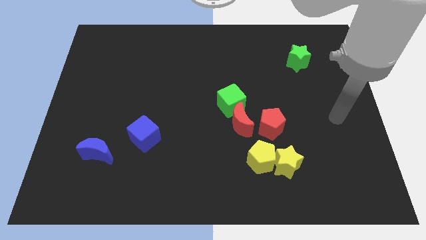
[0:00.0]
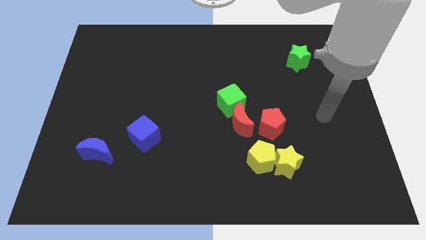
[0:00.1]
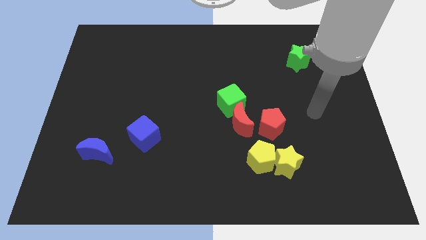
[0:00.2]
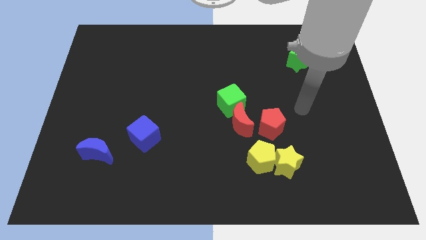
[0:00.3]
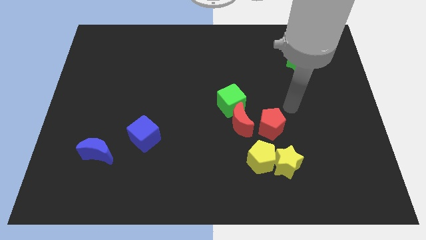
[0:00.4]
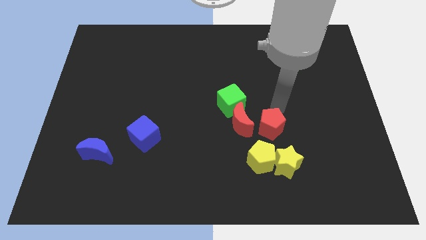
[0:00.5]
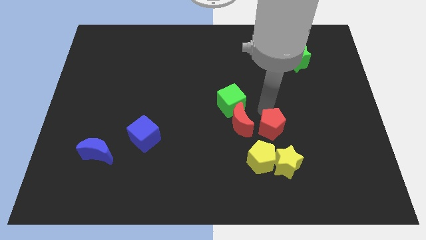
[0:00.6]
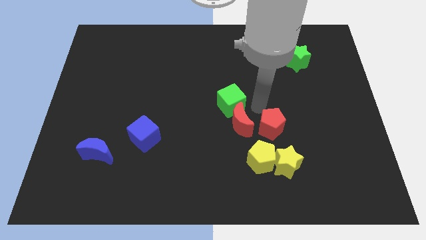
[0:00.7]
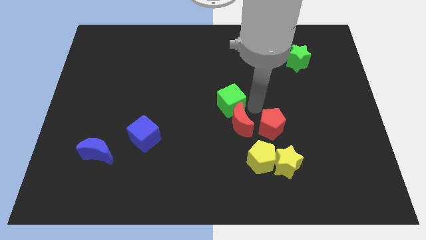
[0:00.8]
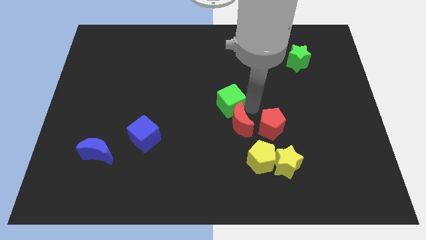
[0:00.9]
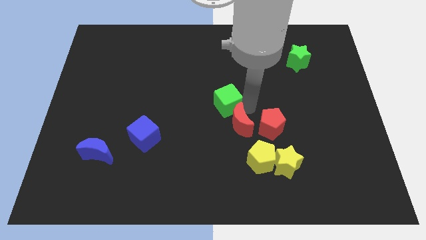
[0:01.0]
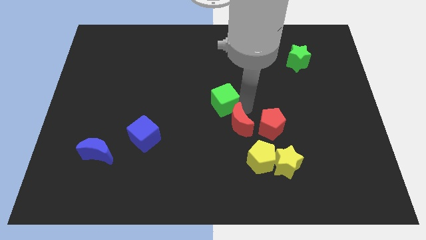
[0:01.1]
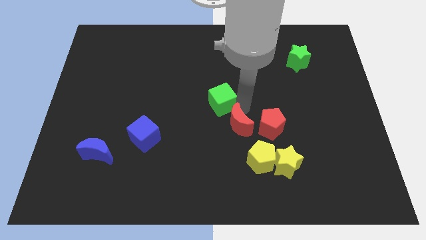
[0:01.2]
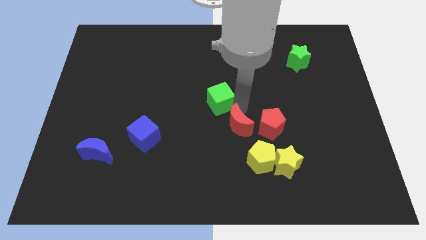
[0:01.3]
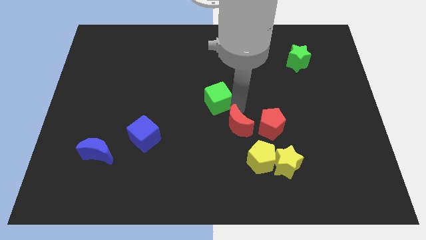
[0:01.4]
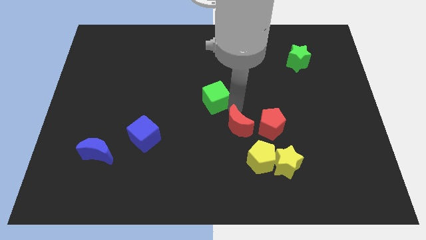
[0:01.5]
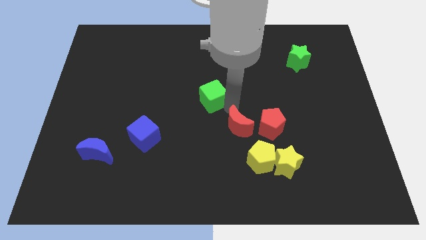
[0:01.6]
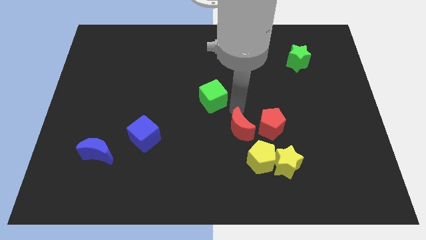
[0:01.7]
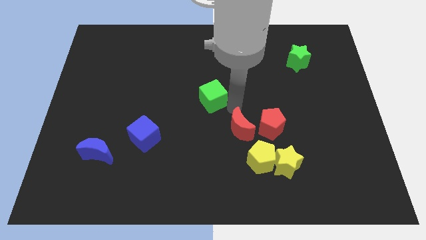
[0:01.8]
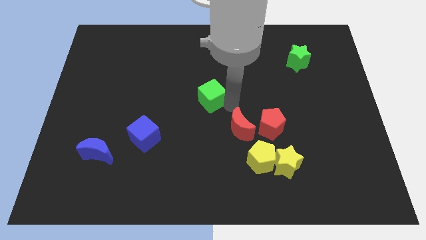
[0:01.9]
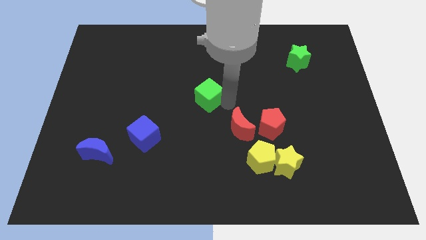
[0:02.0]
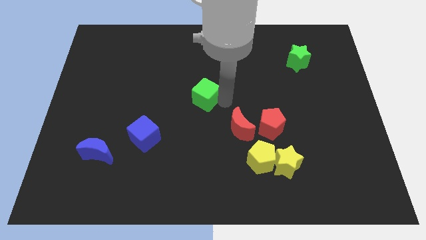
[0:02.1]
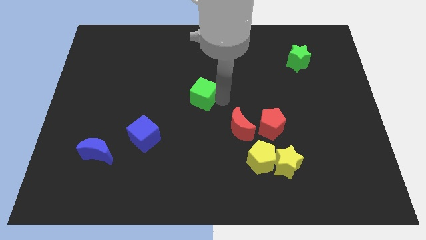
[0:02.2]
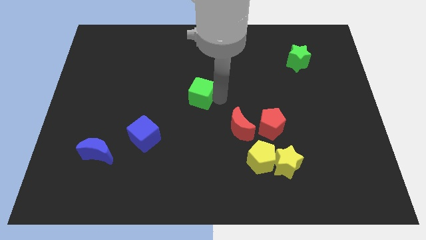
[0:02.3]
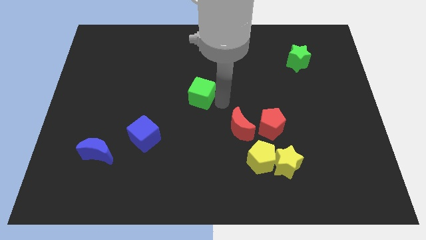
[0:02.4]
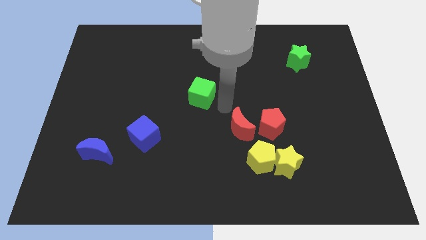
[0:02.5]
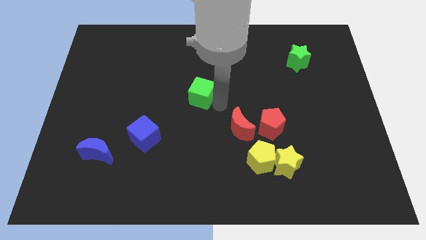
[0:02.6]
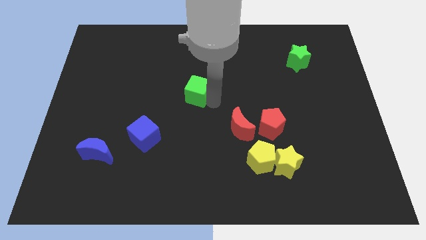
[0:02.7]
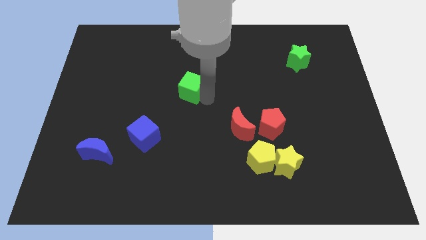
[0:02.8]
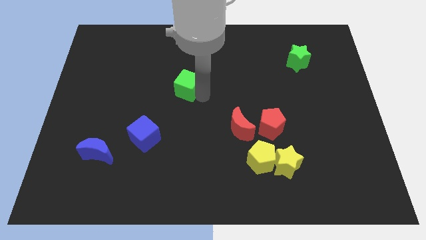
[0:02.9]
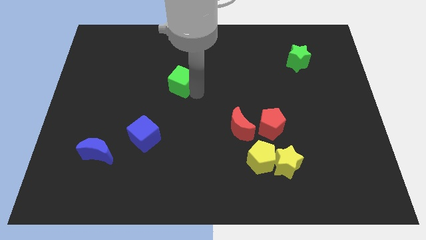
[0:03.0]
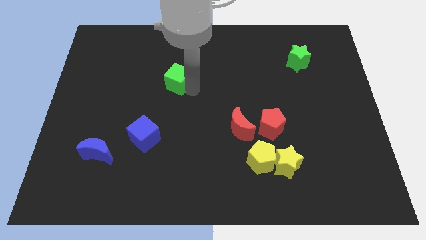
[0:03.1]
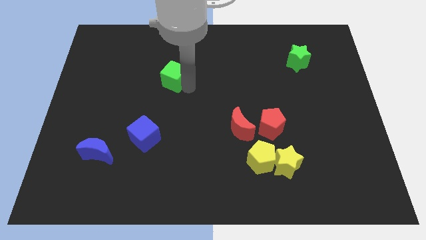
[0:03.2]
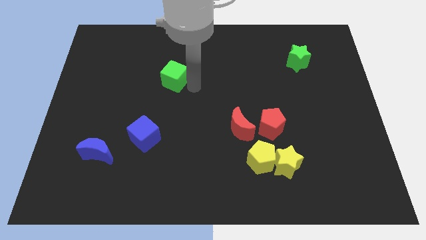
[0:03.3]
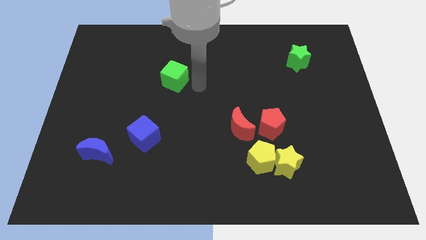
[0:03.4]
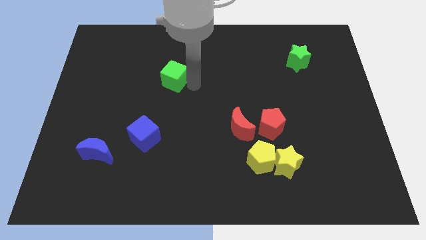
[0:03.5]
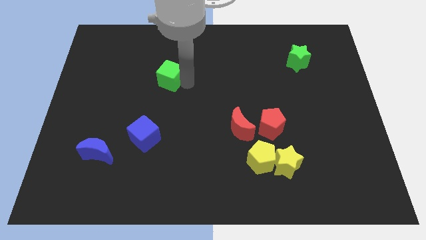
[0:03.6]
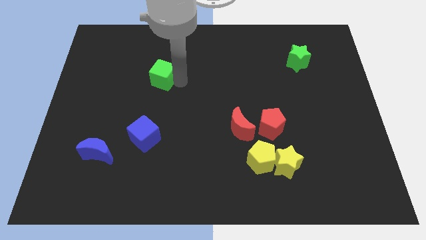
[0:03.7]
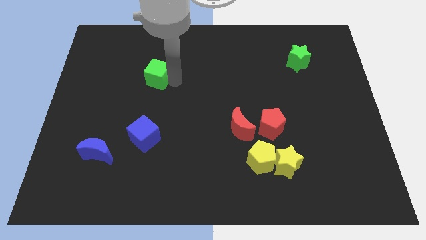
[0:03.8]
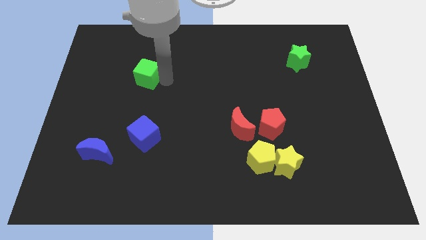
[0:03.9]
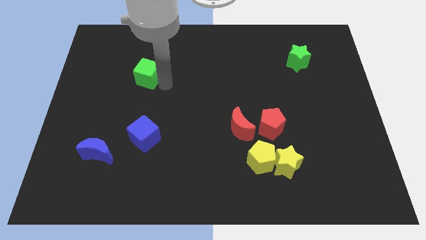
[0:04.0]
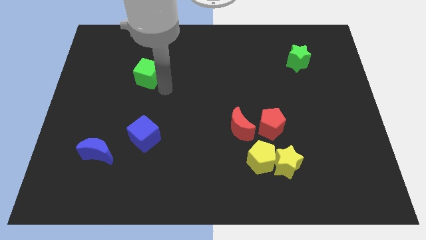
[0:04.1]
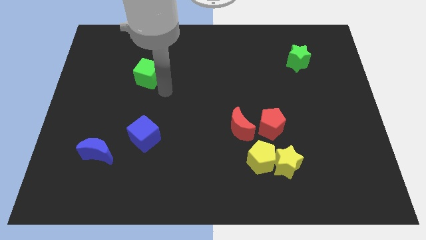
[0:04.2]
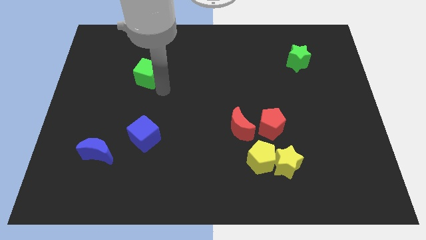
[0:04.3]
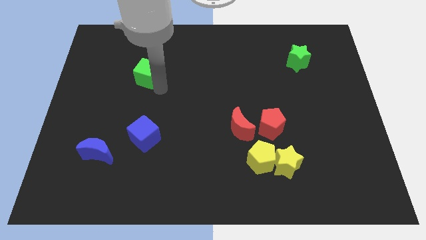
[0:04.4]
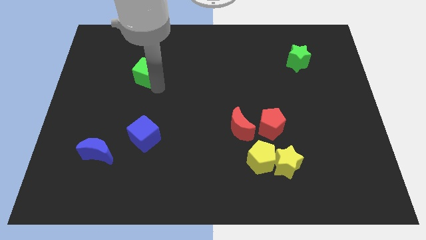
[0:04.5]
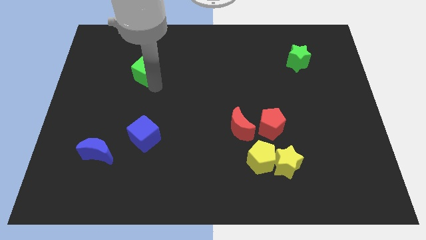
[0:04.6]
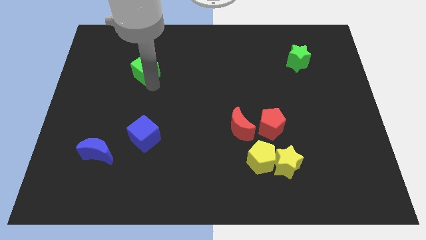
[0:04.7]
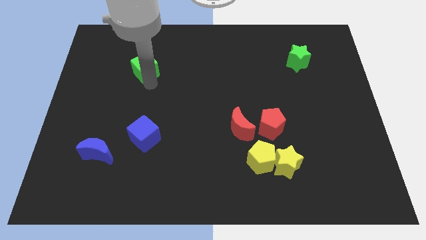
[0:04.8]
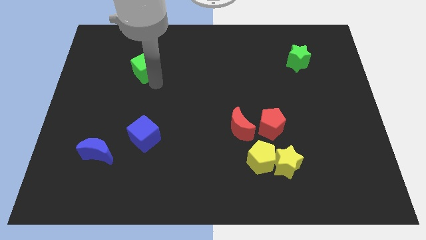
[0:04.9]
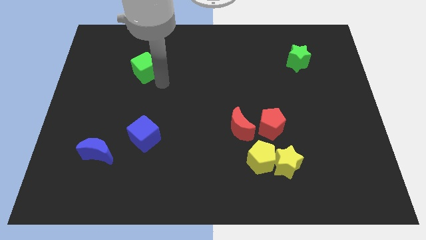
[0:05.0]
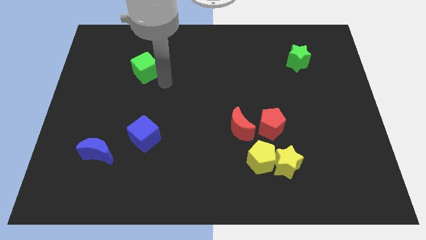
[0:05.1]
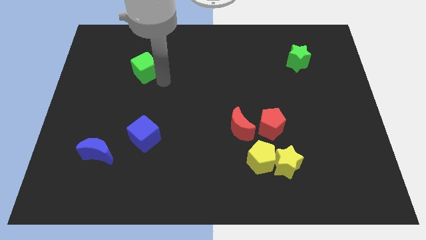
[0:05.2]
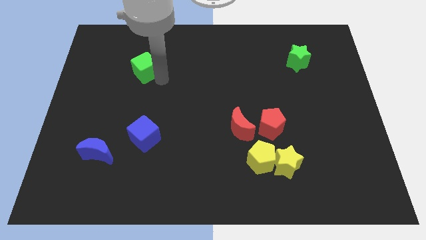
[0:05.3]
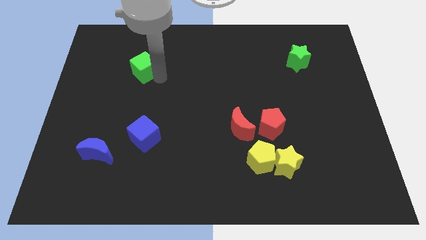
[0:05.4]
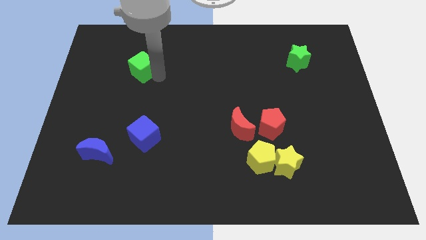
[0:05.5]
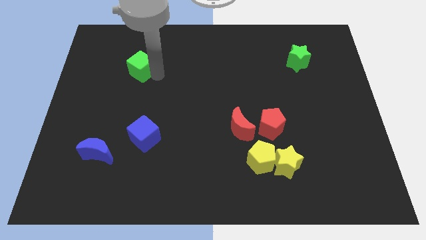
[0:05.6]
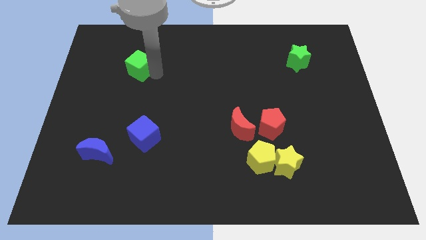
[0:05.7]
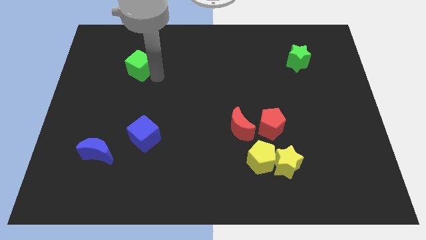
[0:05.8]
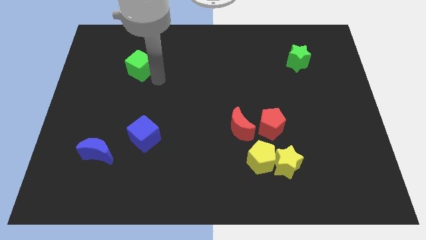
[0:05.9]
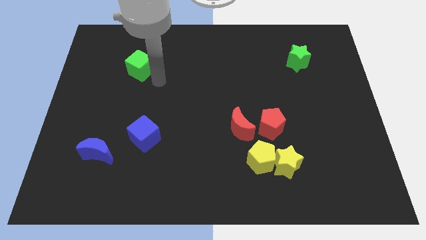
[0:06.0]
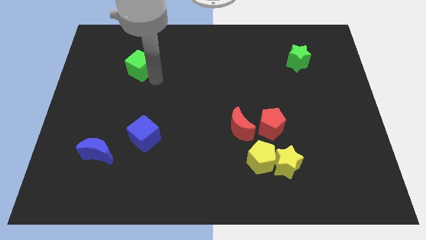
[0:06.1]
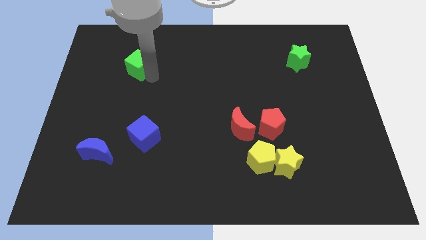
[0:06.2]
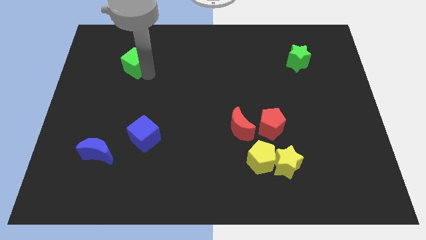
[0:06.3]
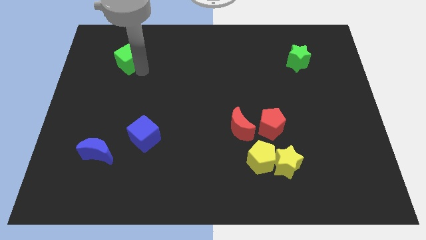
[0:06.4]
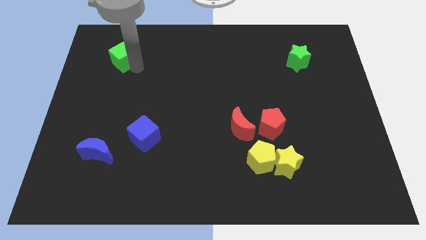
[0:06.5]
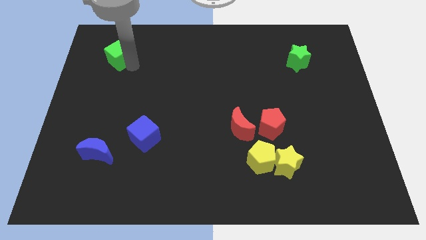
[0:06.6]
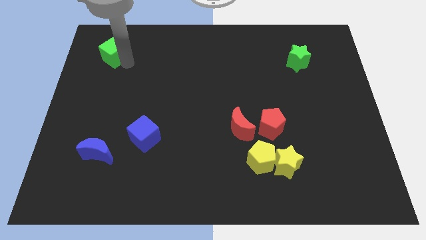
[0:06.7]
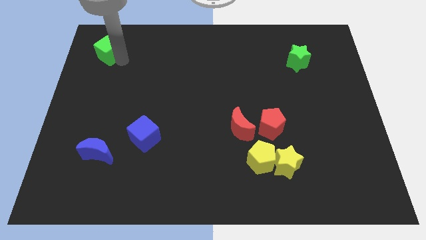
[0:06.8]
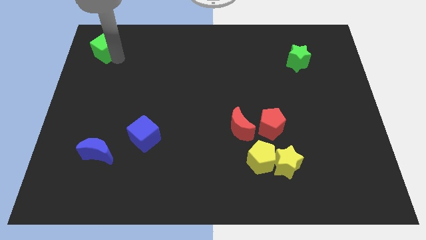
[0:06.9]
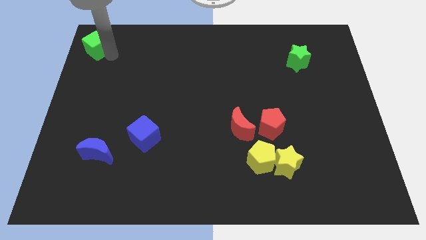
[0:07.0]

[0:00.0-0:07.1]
push the green cube to the upper left corner
